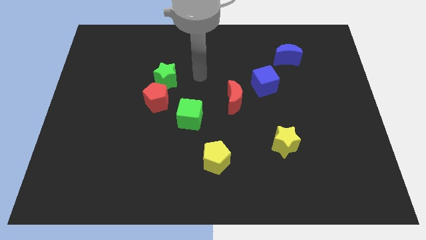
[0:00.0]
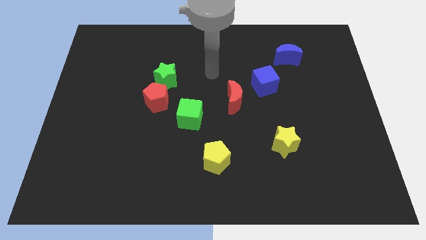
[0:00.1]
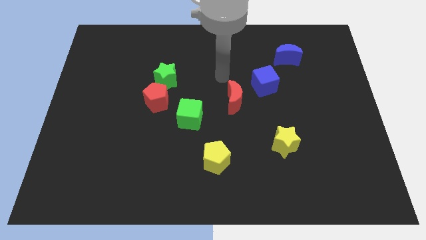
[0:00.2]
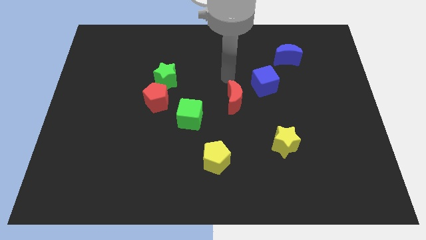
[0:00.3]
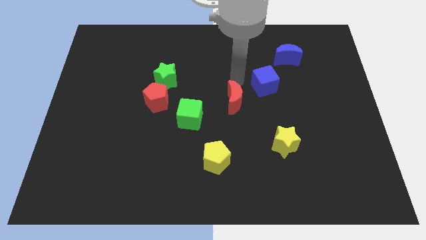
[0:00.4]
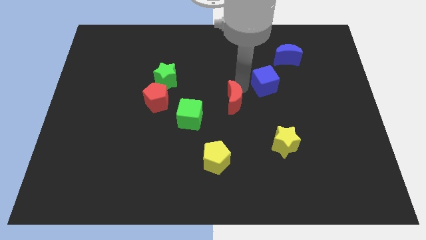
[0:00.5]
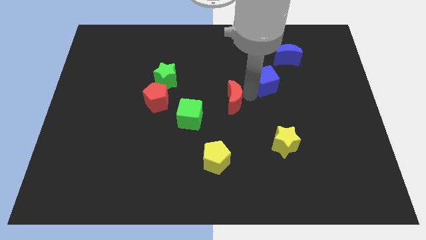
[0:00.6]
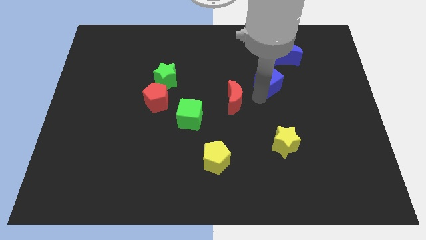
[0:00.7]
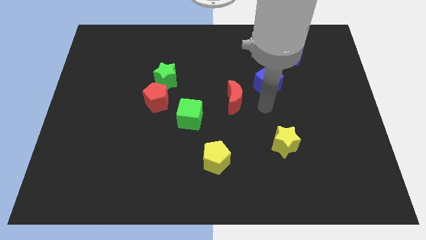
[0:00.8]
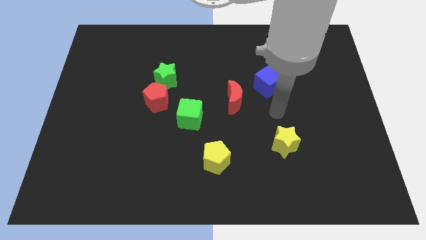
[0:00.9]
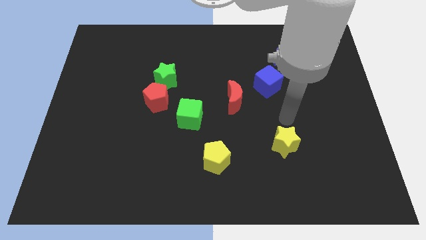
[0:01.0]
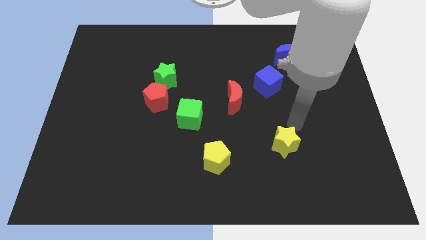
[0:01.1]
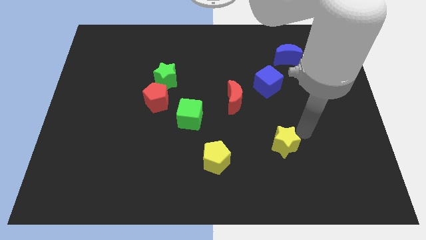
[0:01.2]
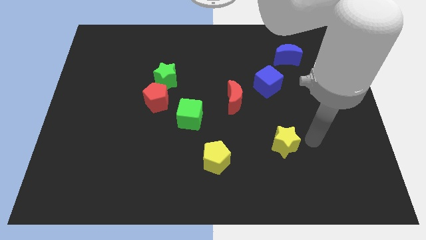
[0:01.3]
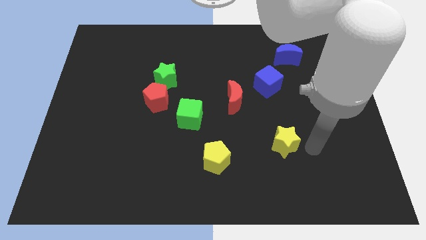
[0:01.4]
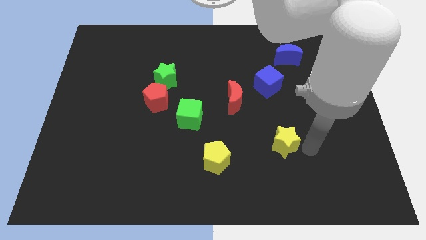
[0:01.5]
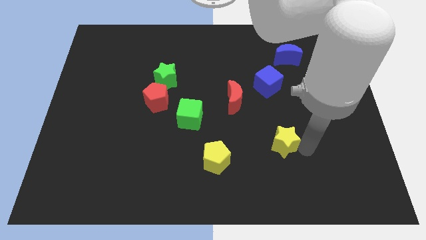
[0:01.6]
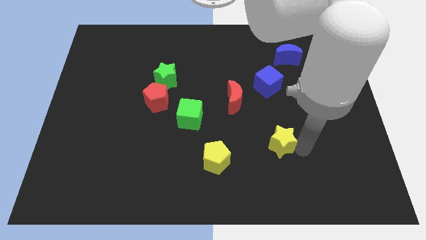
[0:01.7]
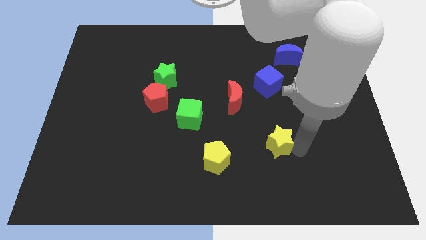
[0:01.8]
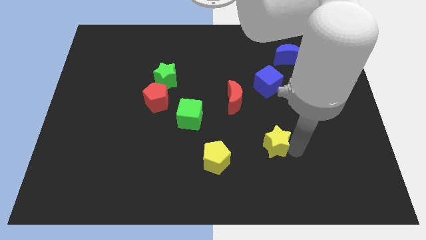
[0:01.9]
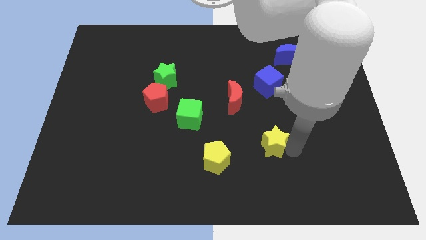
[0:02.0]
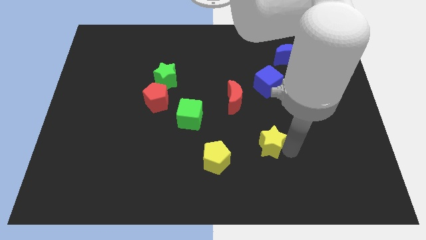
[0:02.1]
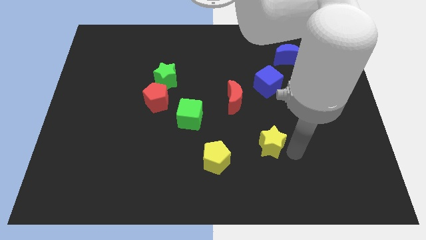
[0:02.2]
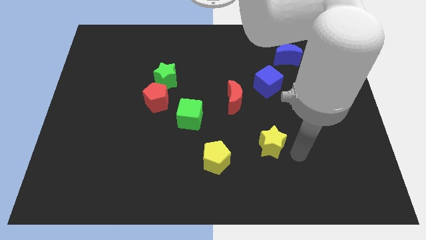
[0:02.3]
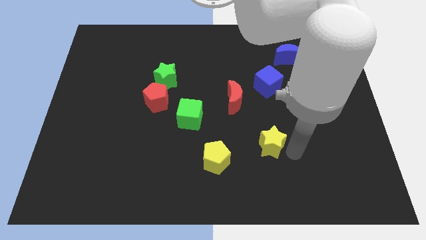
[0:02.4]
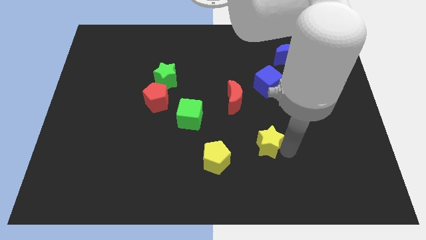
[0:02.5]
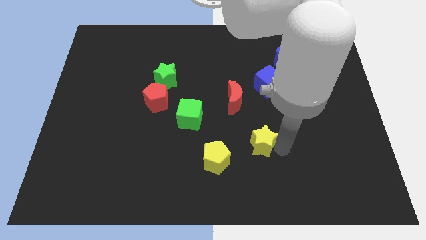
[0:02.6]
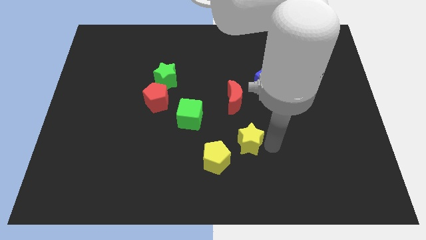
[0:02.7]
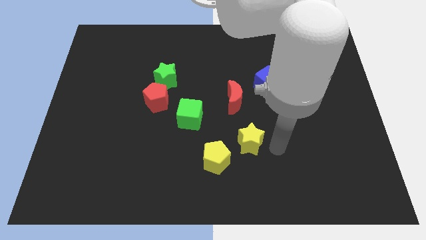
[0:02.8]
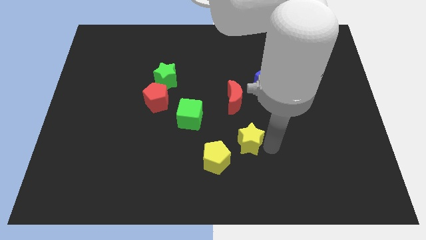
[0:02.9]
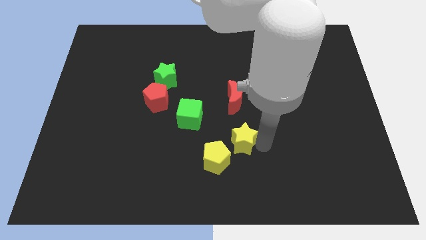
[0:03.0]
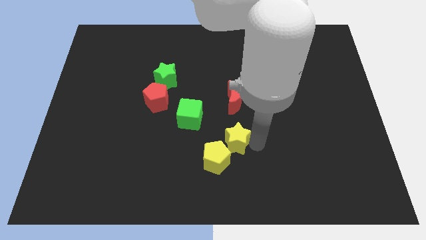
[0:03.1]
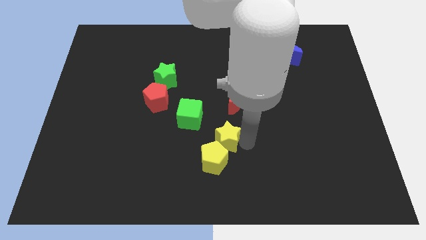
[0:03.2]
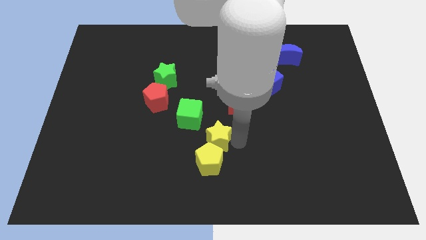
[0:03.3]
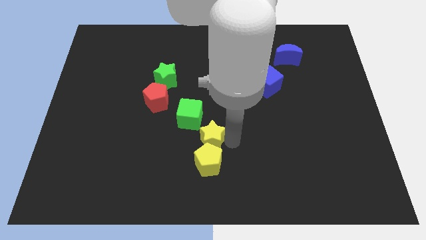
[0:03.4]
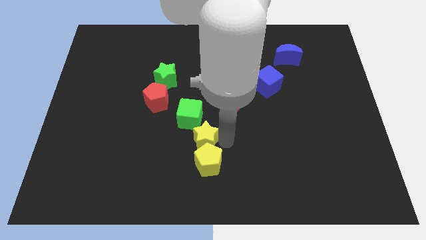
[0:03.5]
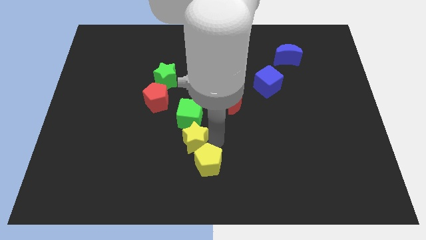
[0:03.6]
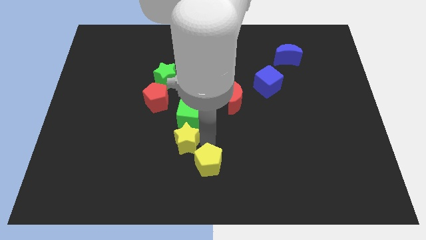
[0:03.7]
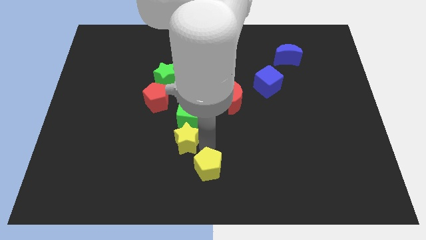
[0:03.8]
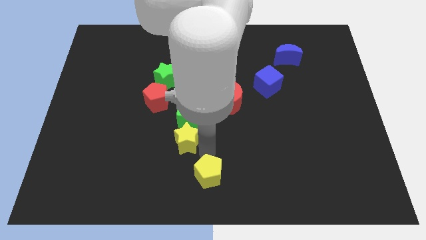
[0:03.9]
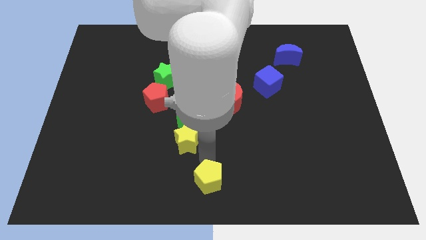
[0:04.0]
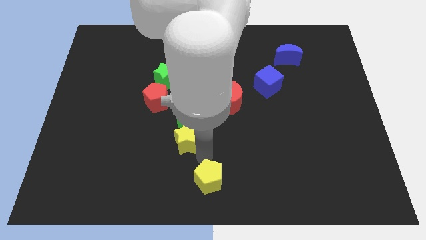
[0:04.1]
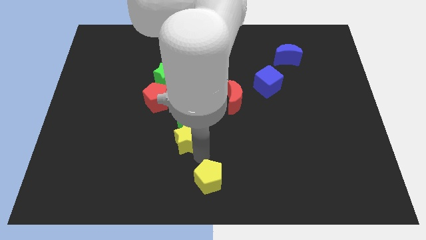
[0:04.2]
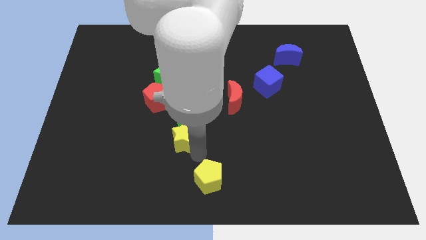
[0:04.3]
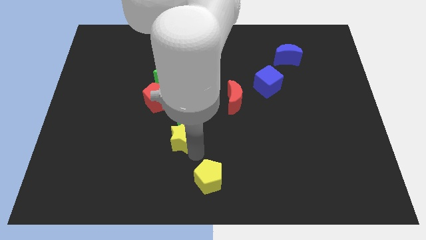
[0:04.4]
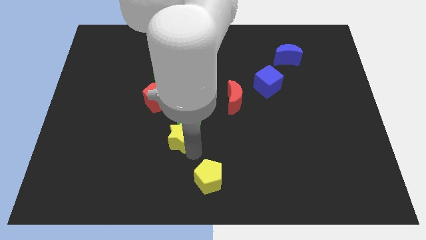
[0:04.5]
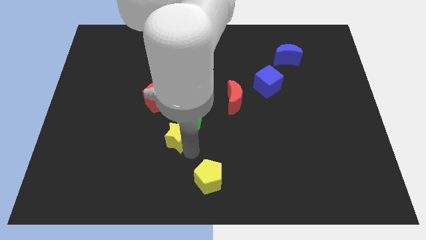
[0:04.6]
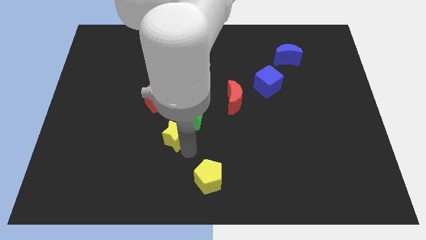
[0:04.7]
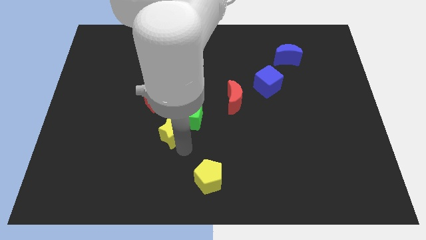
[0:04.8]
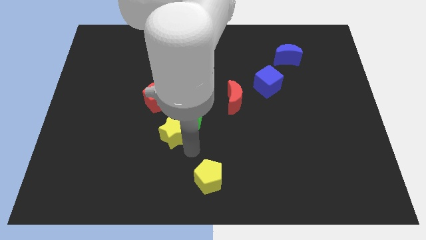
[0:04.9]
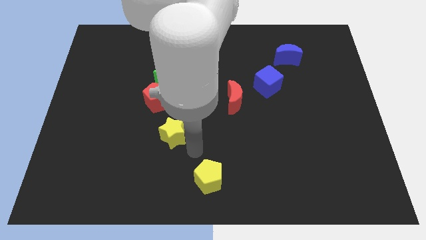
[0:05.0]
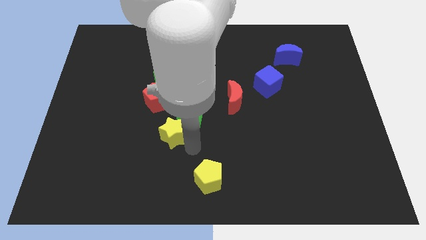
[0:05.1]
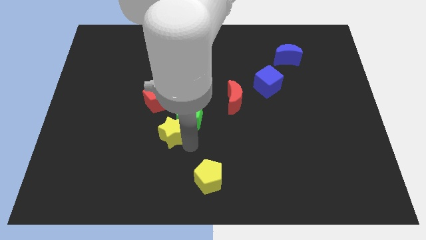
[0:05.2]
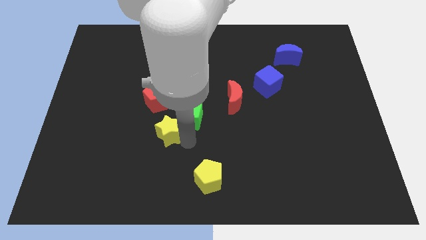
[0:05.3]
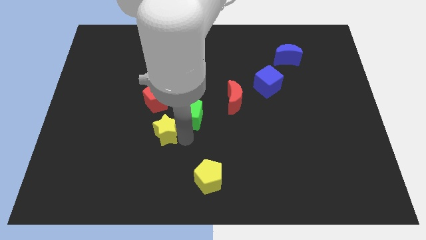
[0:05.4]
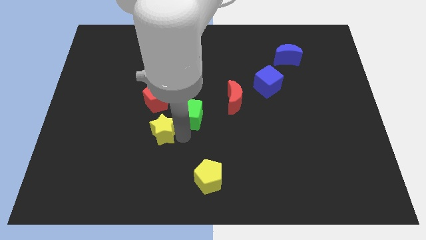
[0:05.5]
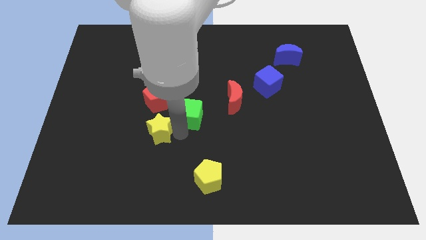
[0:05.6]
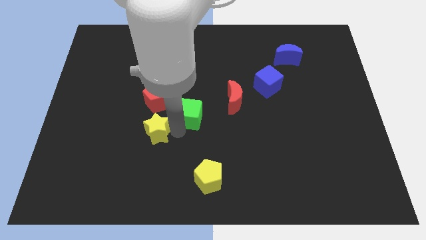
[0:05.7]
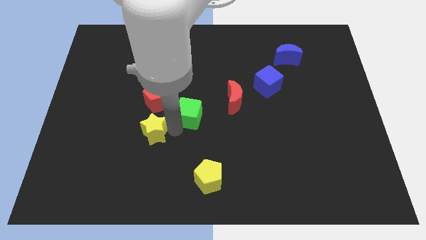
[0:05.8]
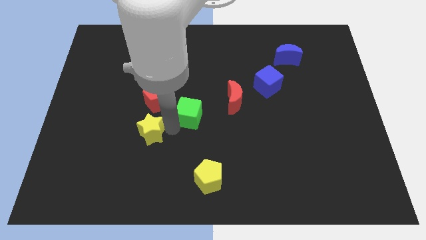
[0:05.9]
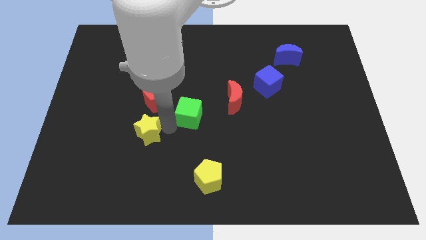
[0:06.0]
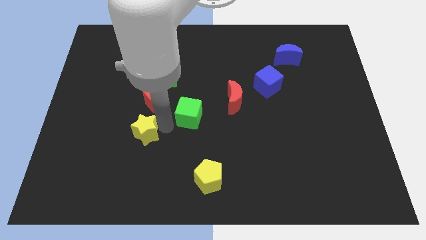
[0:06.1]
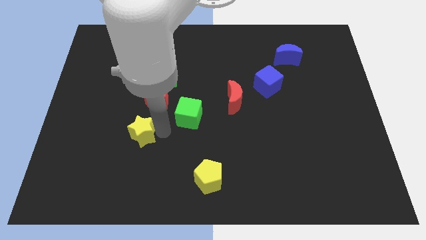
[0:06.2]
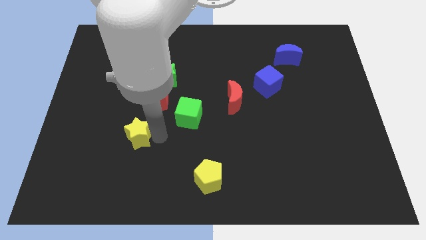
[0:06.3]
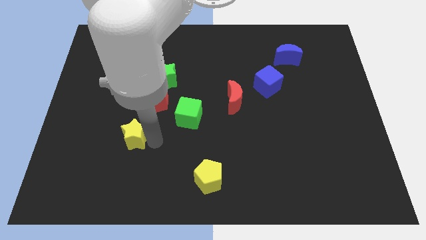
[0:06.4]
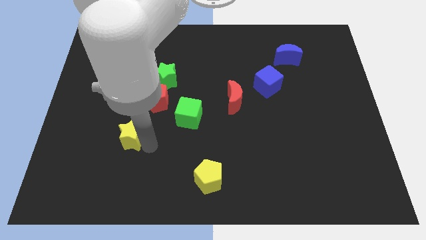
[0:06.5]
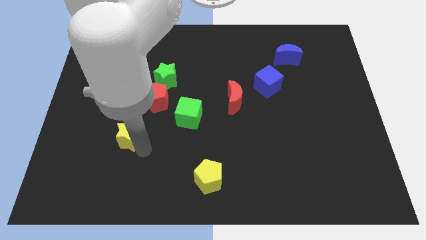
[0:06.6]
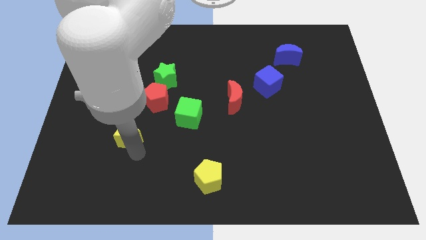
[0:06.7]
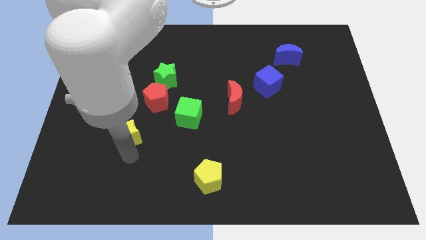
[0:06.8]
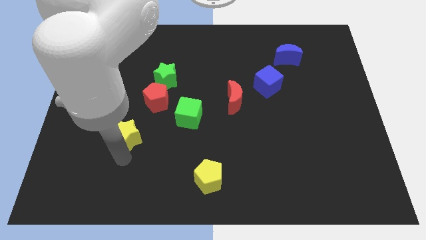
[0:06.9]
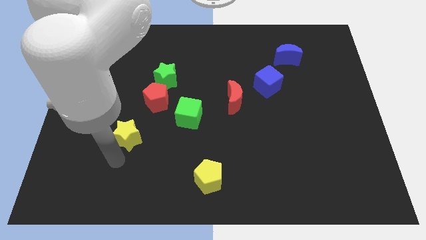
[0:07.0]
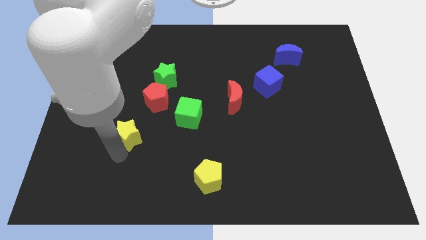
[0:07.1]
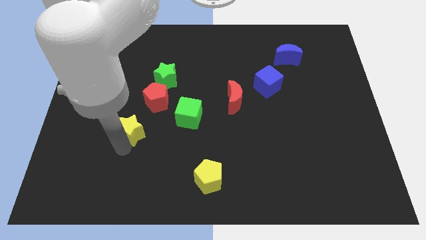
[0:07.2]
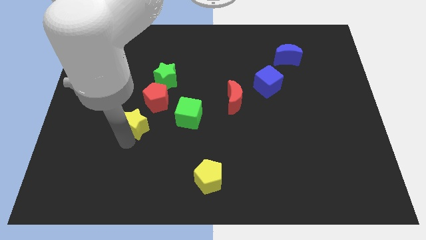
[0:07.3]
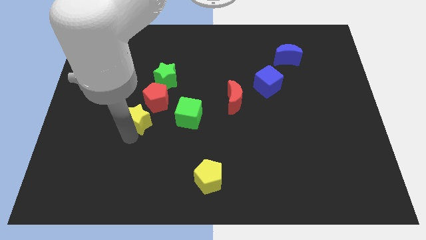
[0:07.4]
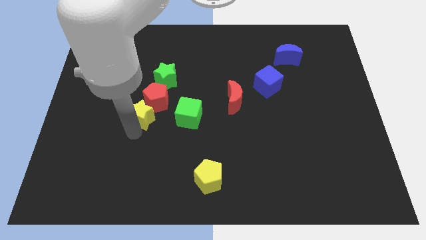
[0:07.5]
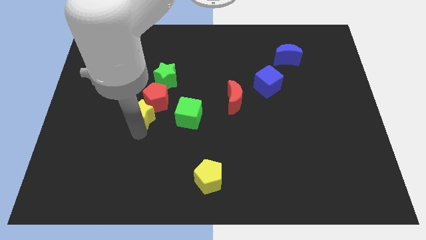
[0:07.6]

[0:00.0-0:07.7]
move the yellow star left of the red pentagon
